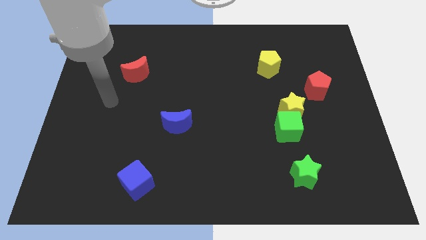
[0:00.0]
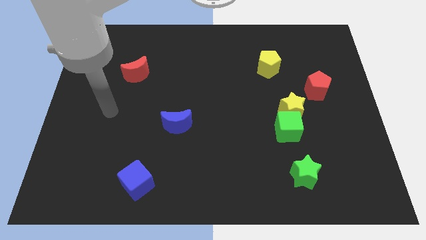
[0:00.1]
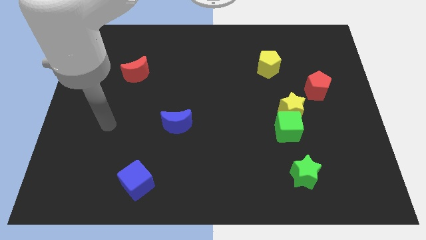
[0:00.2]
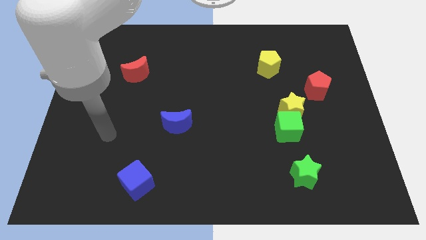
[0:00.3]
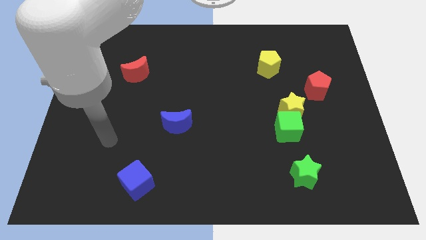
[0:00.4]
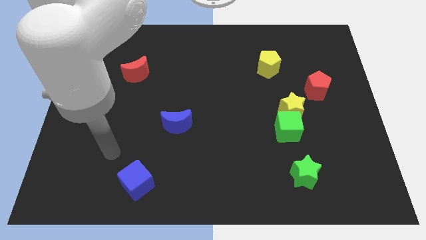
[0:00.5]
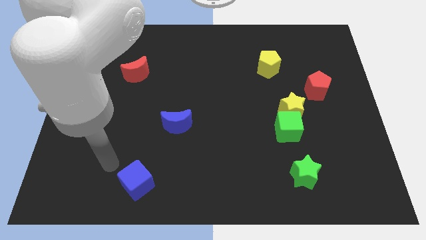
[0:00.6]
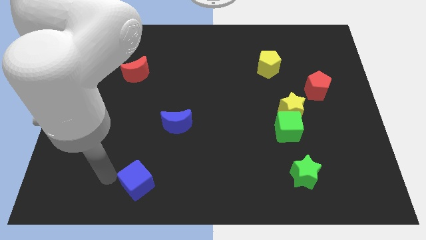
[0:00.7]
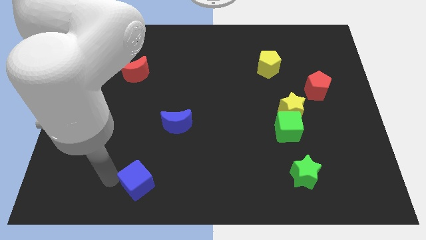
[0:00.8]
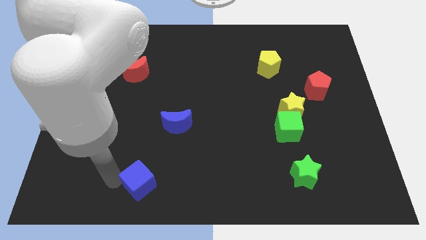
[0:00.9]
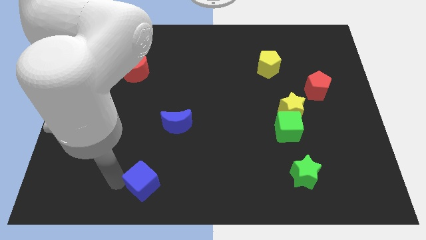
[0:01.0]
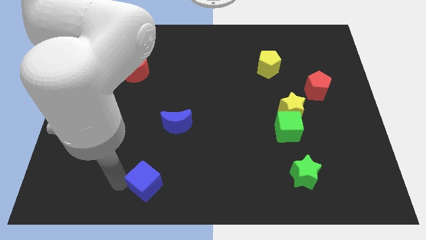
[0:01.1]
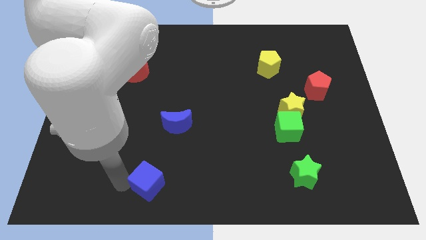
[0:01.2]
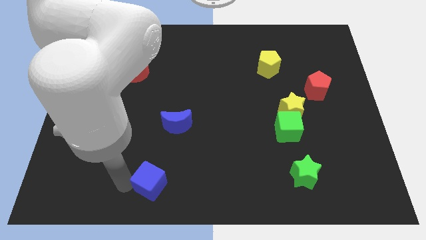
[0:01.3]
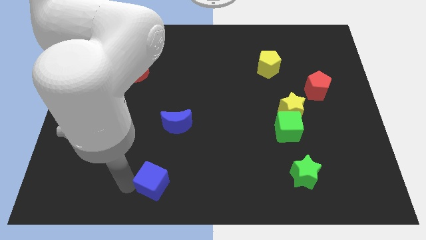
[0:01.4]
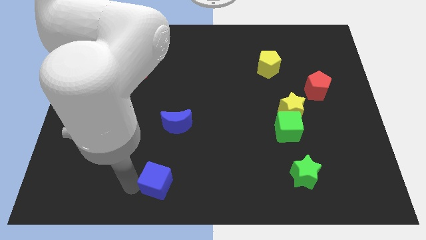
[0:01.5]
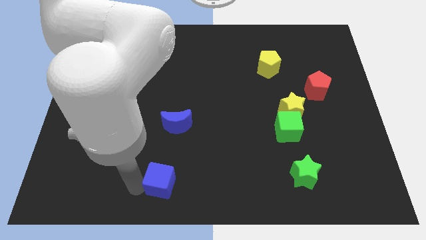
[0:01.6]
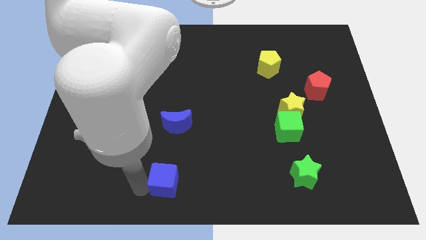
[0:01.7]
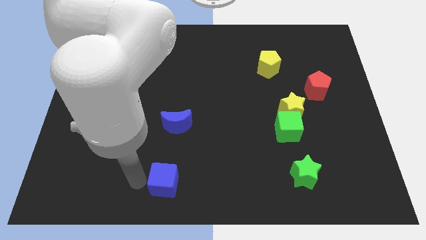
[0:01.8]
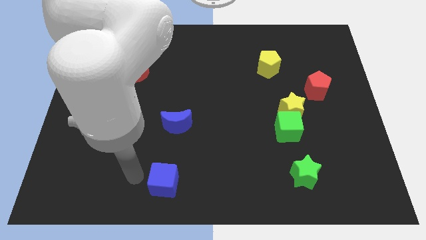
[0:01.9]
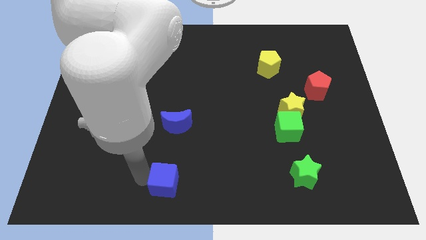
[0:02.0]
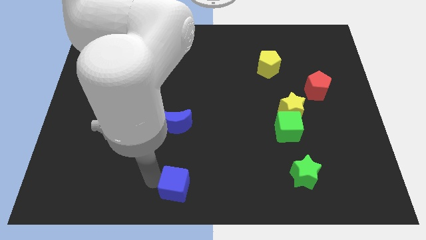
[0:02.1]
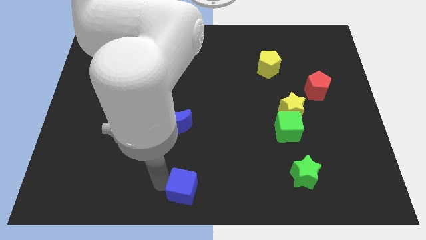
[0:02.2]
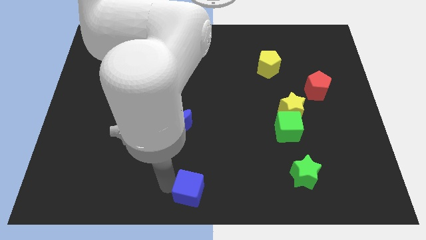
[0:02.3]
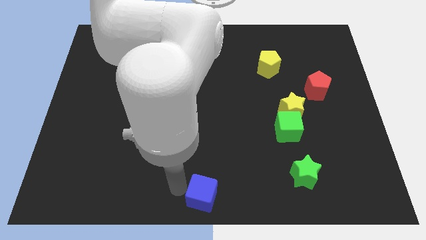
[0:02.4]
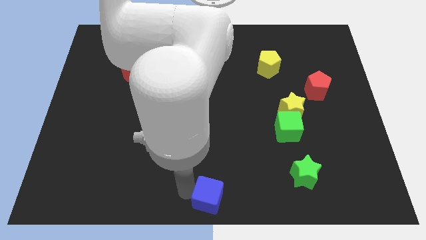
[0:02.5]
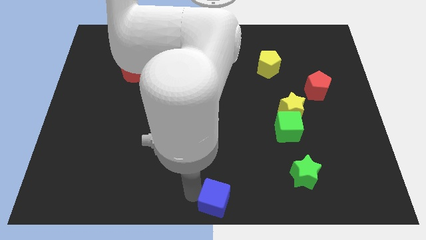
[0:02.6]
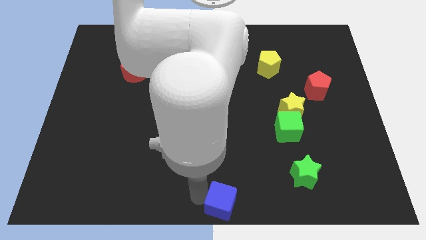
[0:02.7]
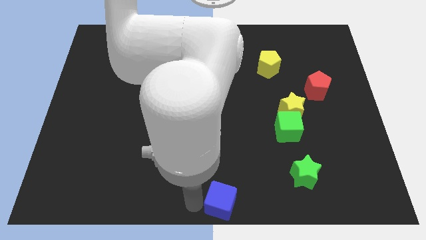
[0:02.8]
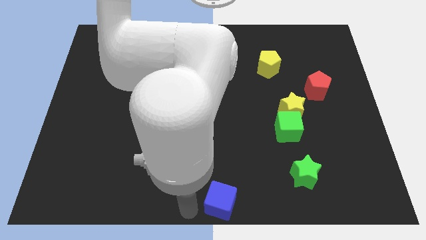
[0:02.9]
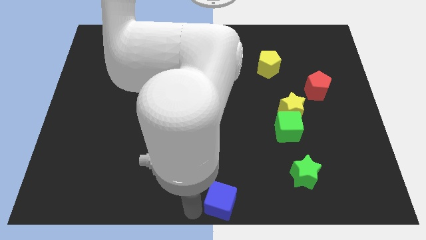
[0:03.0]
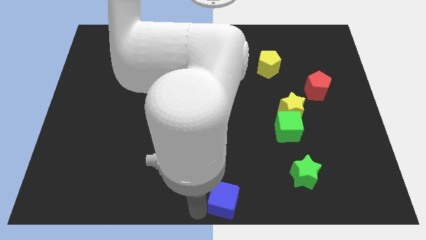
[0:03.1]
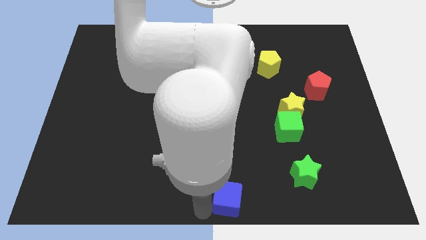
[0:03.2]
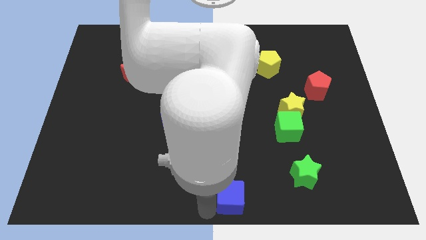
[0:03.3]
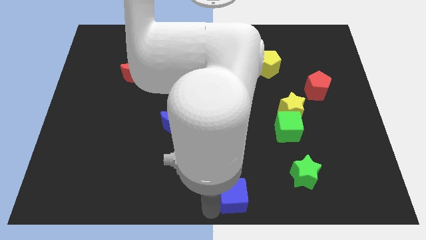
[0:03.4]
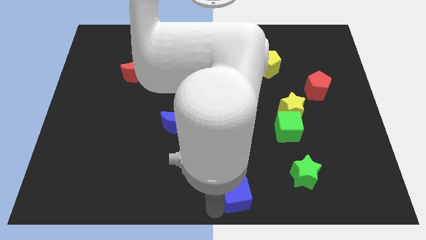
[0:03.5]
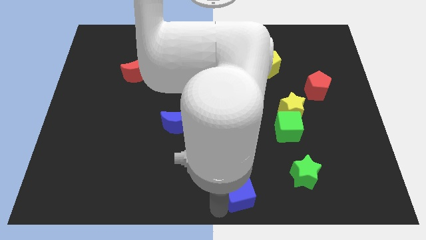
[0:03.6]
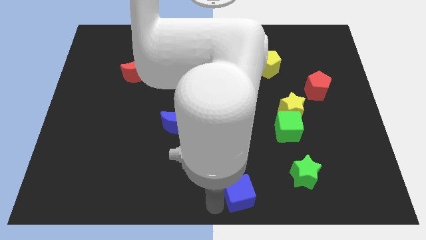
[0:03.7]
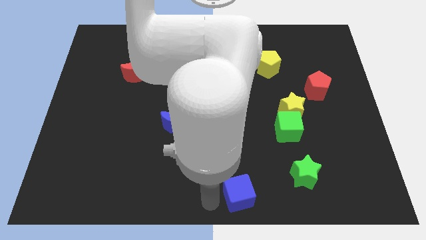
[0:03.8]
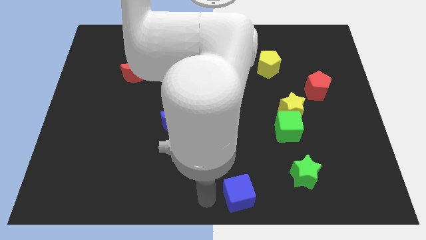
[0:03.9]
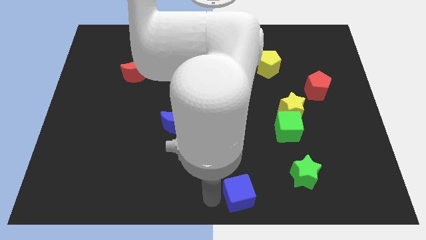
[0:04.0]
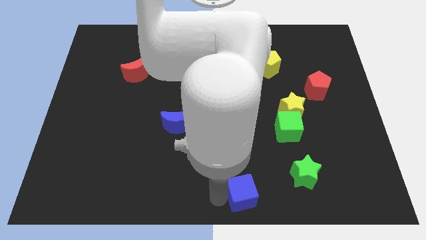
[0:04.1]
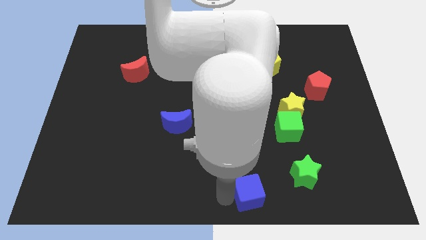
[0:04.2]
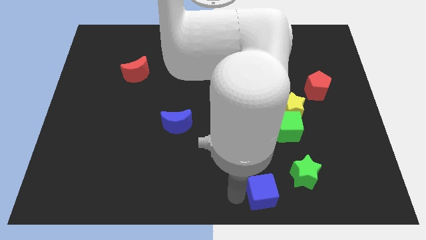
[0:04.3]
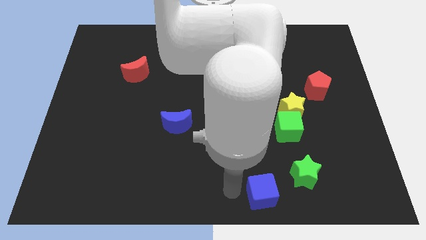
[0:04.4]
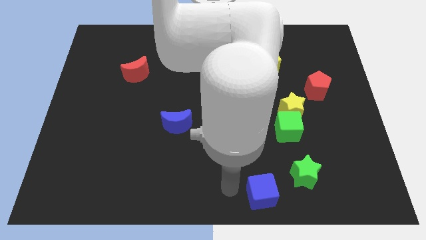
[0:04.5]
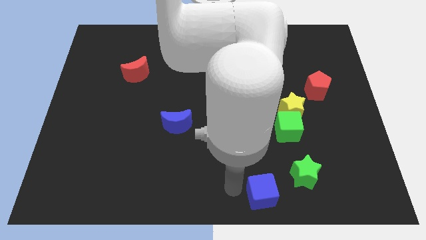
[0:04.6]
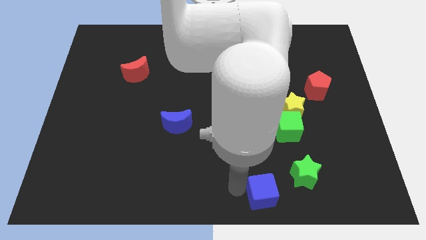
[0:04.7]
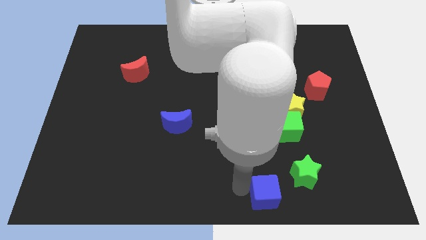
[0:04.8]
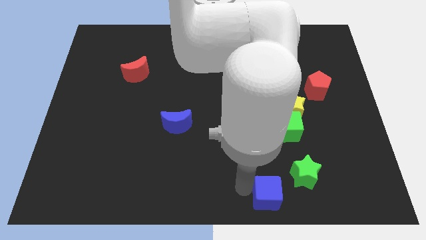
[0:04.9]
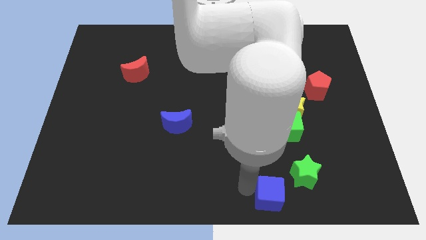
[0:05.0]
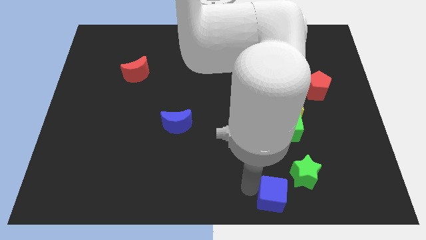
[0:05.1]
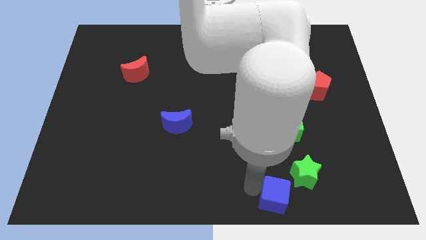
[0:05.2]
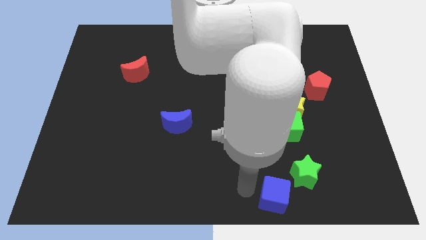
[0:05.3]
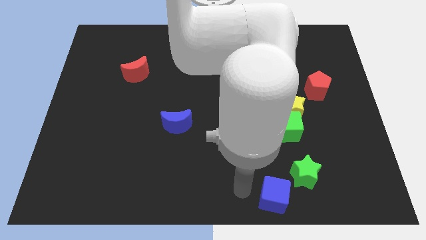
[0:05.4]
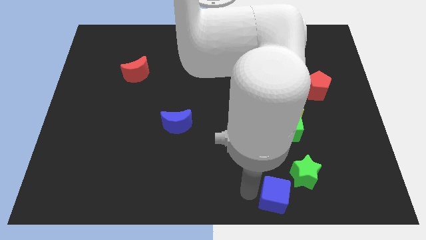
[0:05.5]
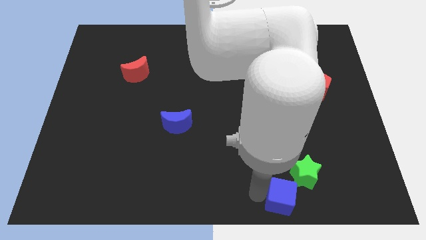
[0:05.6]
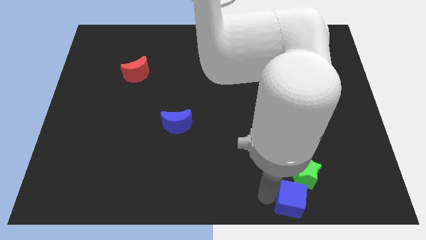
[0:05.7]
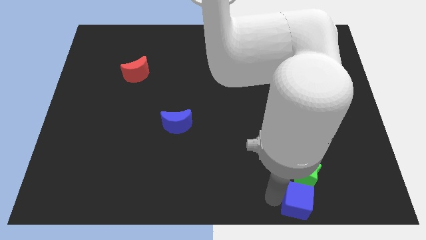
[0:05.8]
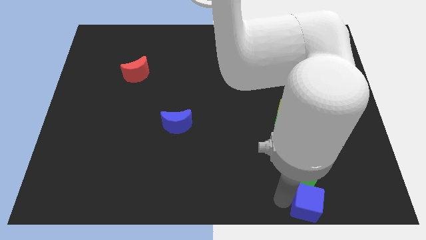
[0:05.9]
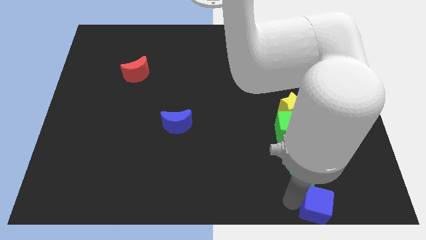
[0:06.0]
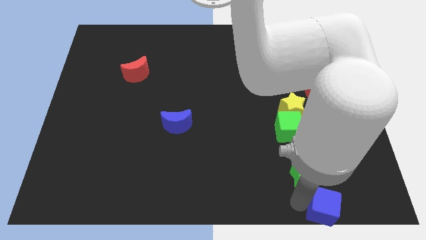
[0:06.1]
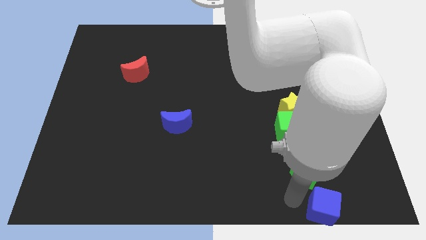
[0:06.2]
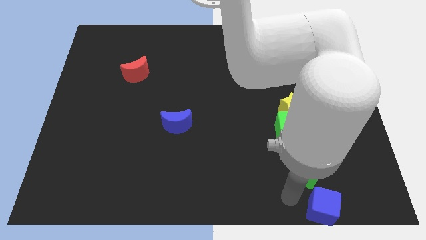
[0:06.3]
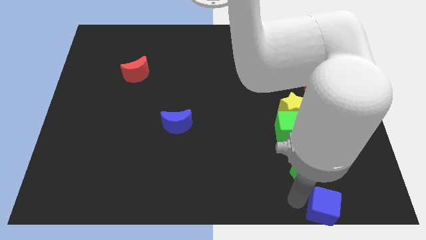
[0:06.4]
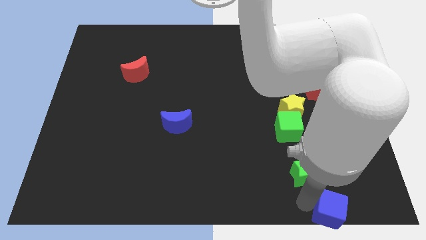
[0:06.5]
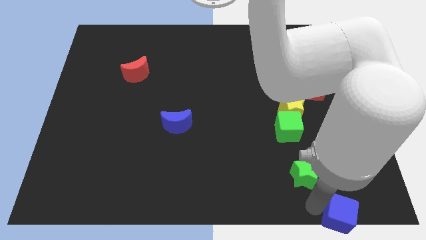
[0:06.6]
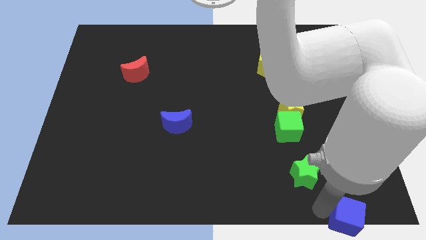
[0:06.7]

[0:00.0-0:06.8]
put the blue cube to the bottom right of the board
